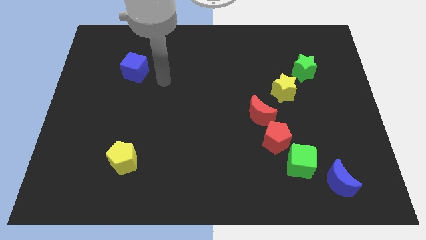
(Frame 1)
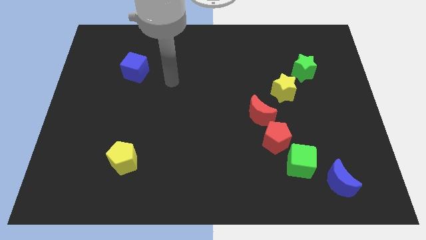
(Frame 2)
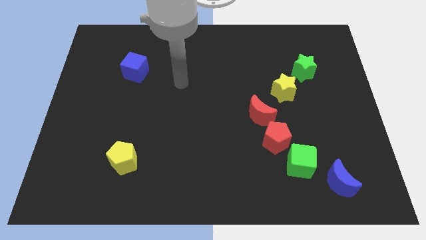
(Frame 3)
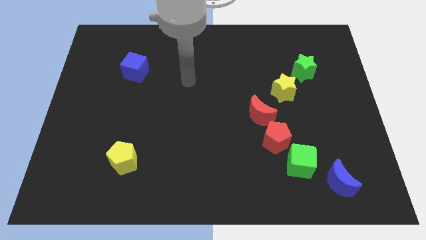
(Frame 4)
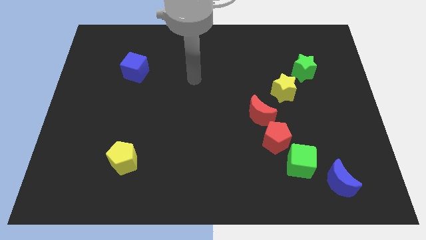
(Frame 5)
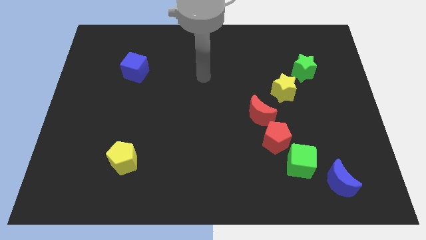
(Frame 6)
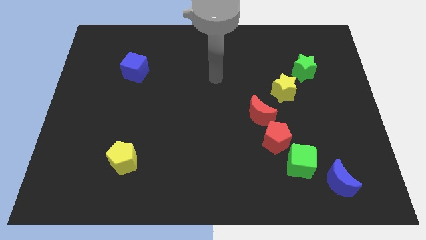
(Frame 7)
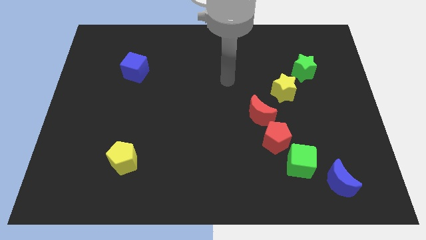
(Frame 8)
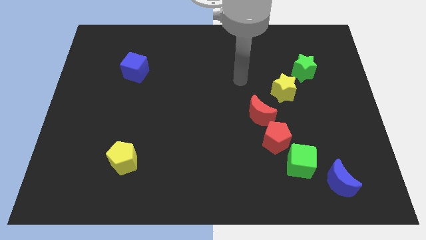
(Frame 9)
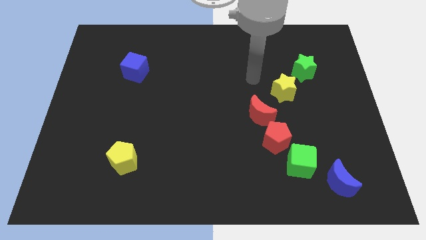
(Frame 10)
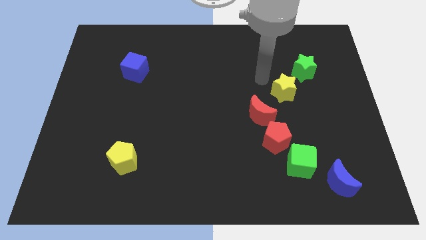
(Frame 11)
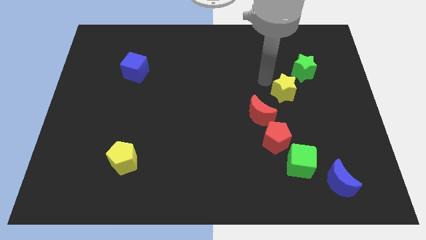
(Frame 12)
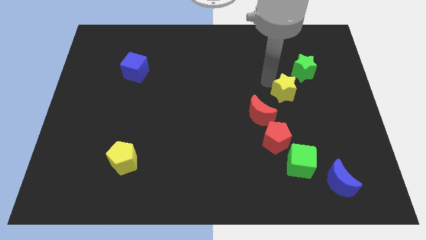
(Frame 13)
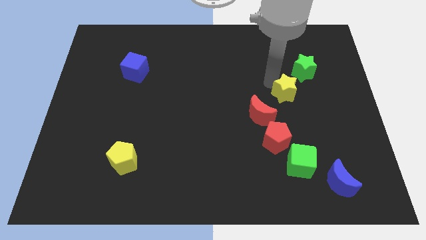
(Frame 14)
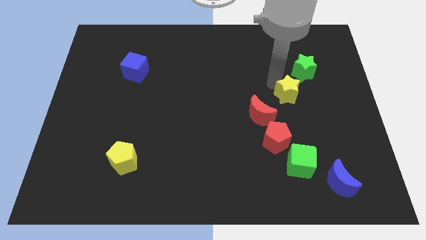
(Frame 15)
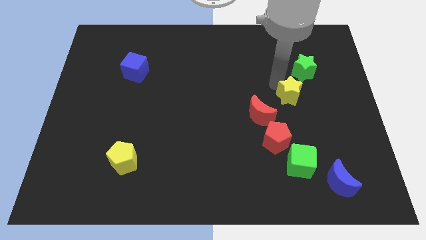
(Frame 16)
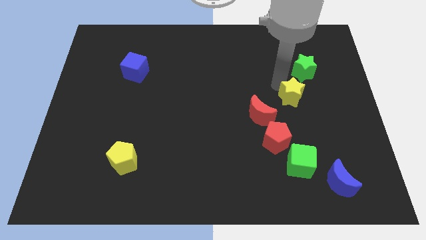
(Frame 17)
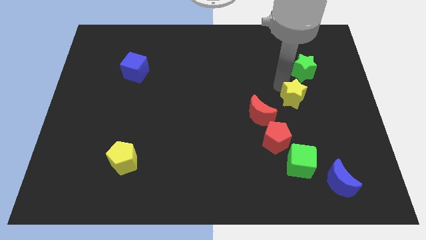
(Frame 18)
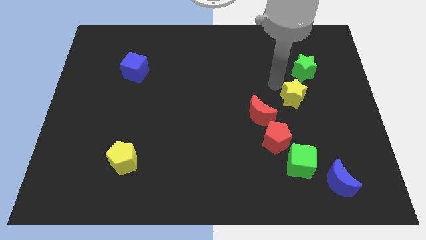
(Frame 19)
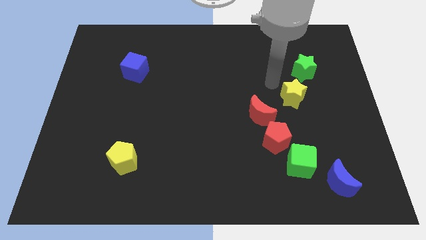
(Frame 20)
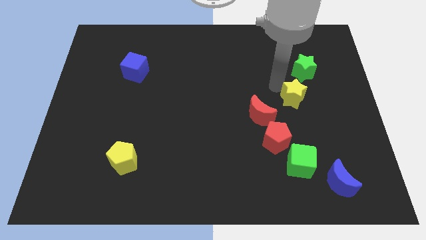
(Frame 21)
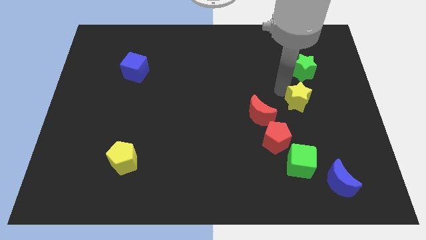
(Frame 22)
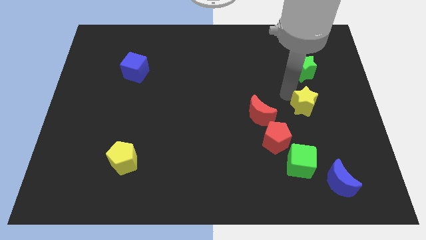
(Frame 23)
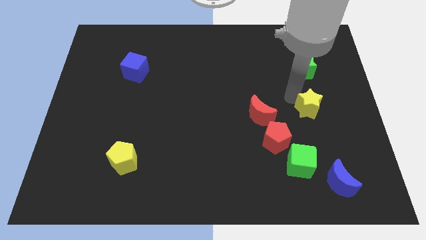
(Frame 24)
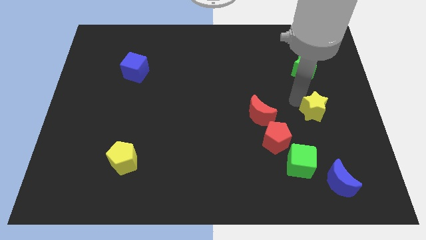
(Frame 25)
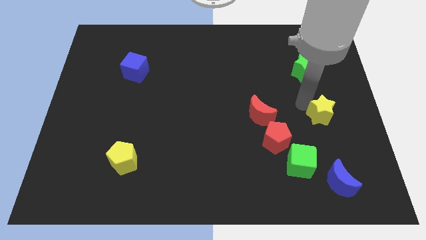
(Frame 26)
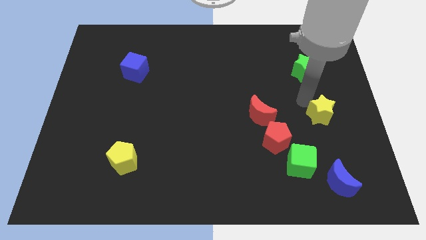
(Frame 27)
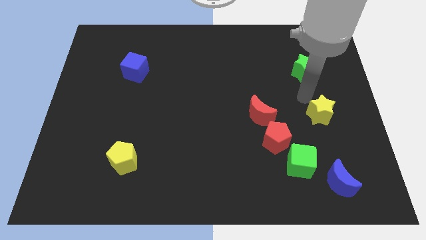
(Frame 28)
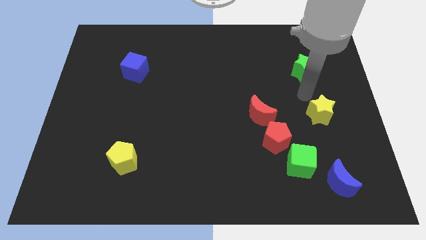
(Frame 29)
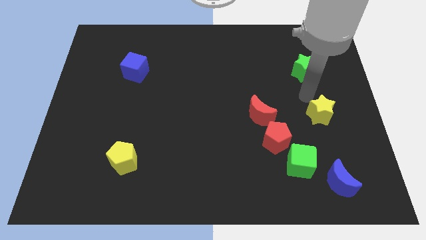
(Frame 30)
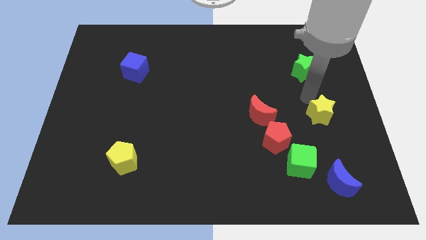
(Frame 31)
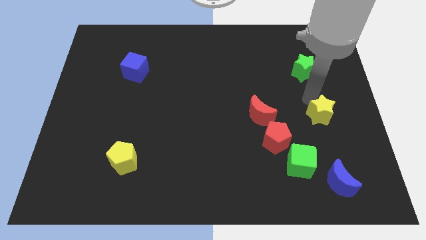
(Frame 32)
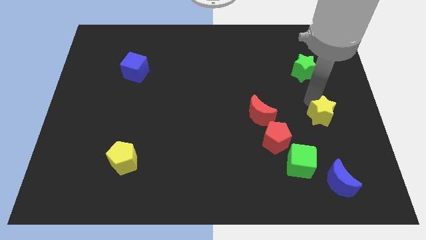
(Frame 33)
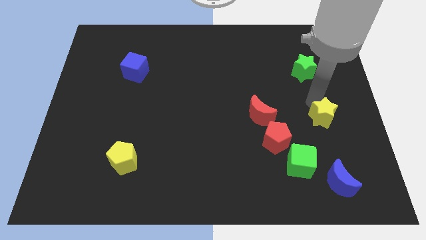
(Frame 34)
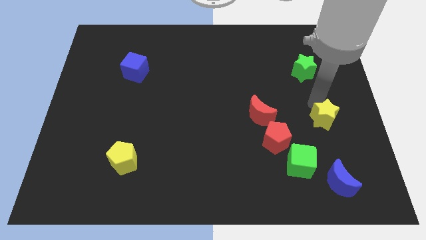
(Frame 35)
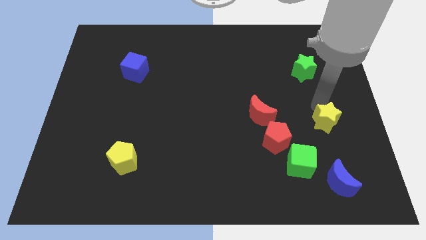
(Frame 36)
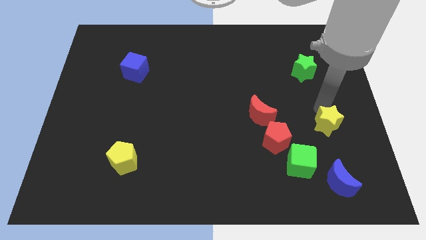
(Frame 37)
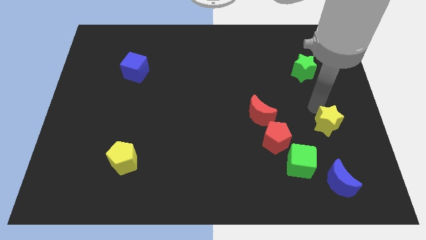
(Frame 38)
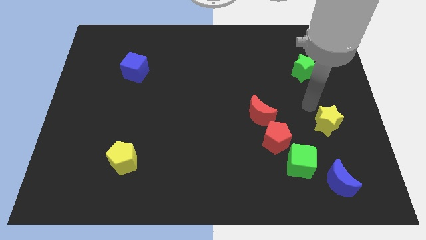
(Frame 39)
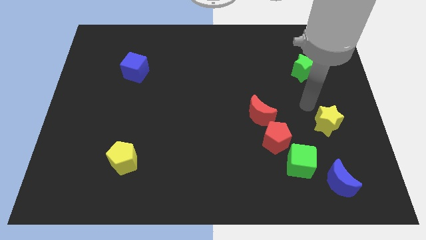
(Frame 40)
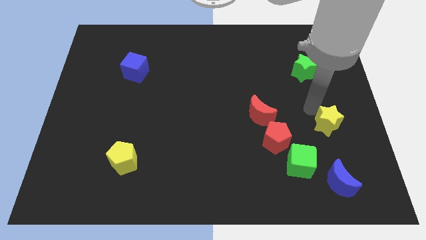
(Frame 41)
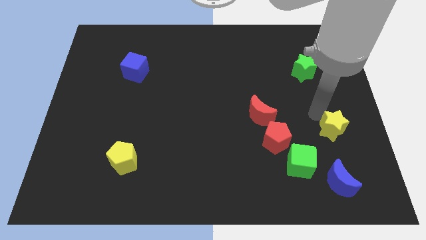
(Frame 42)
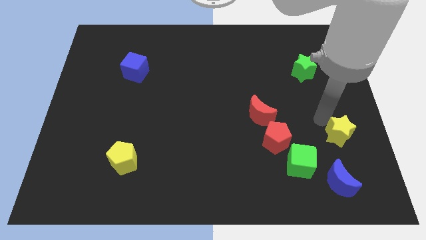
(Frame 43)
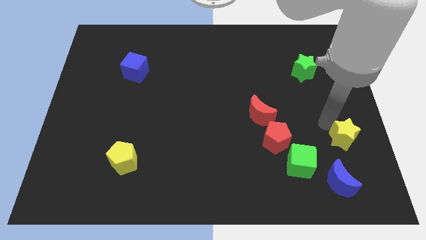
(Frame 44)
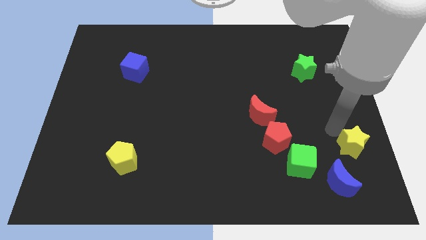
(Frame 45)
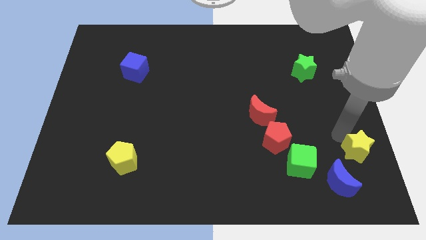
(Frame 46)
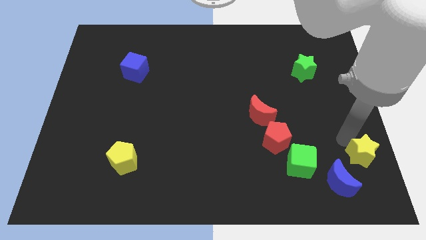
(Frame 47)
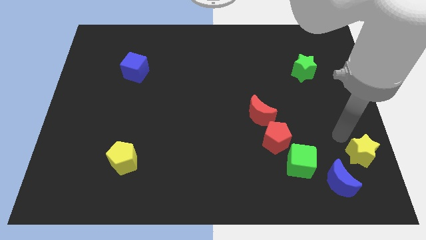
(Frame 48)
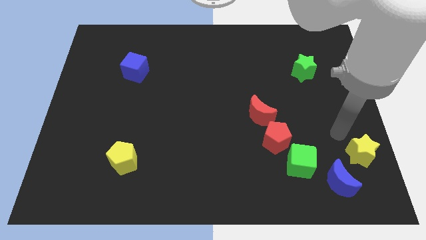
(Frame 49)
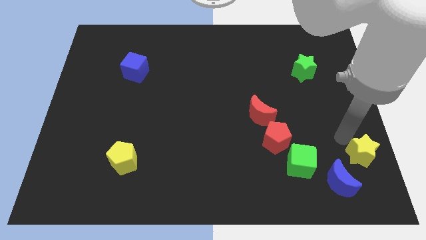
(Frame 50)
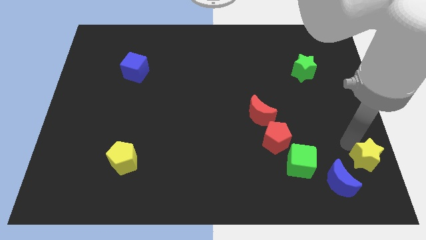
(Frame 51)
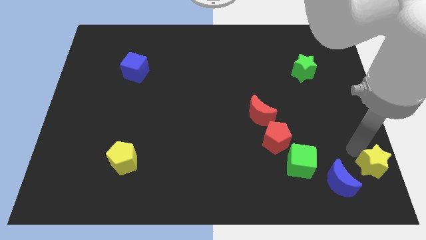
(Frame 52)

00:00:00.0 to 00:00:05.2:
slide the yellow star to the bottom right

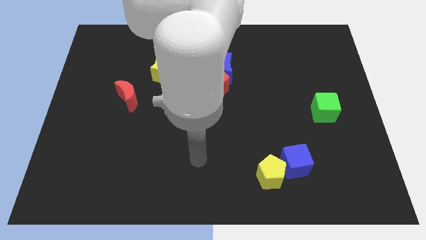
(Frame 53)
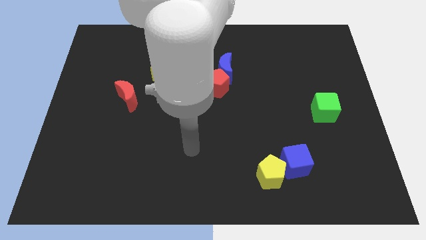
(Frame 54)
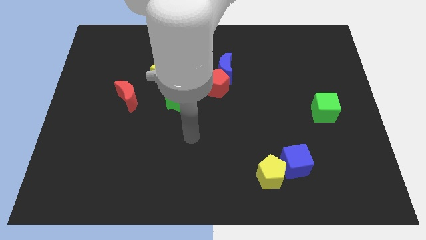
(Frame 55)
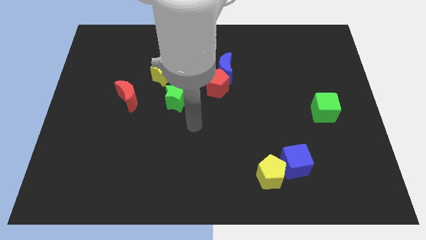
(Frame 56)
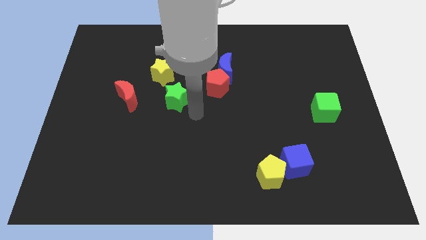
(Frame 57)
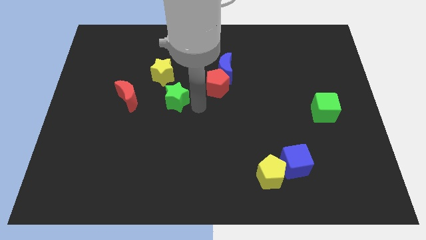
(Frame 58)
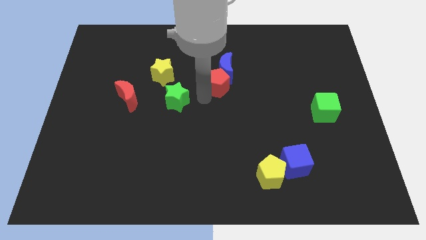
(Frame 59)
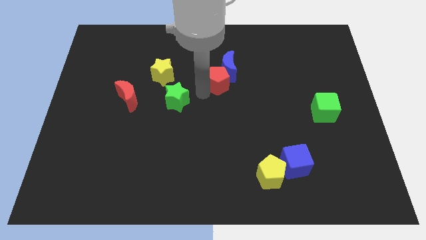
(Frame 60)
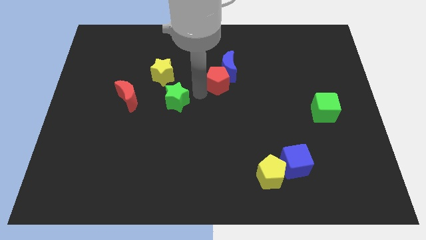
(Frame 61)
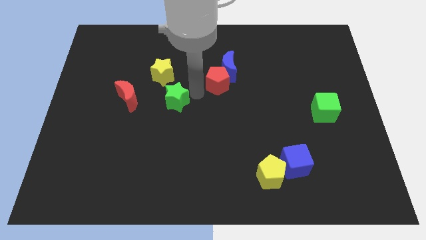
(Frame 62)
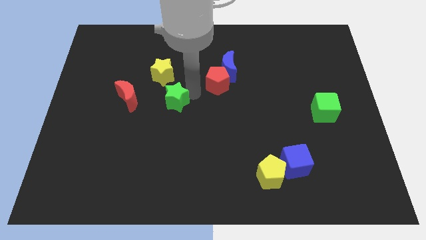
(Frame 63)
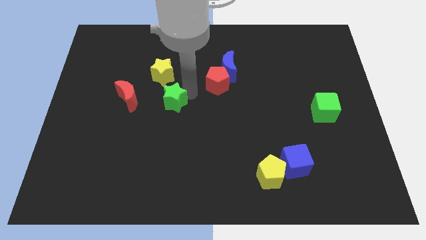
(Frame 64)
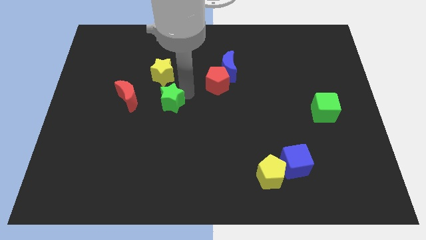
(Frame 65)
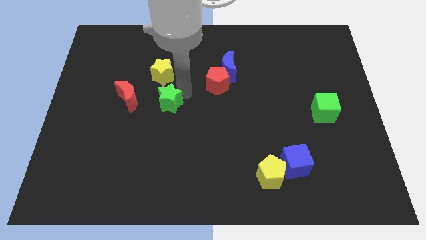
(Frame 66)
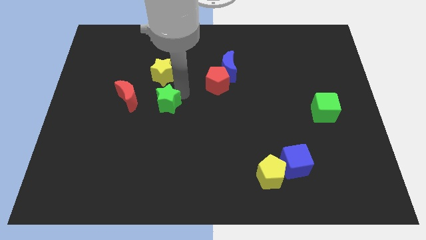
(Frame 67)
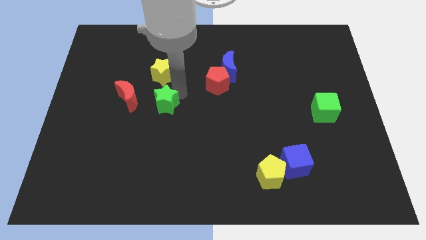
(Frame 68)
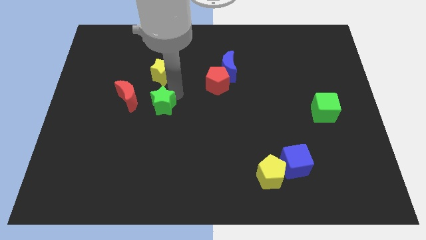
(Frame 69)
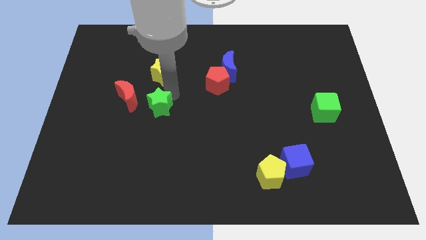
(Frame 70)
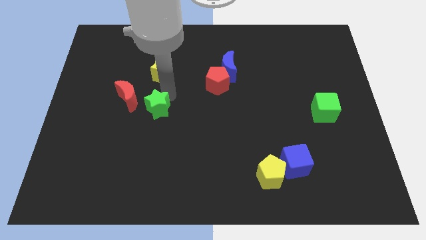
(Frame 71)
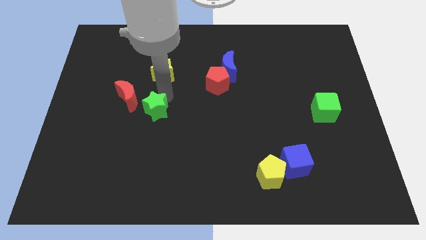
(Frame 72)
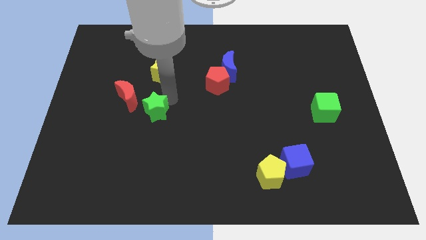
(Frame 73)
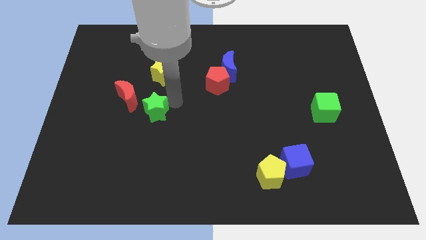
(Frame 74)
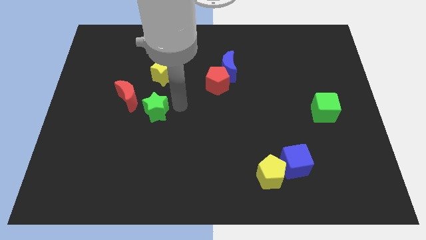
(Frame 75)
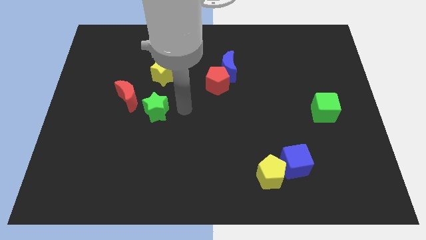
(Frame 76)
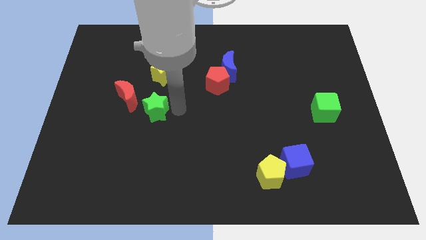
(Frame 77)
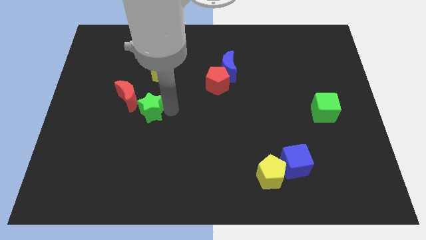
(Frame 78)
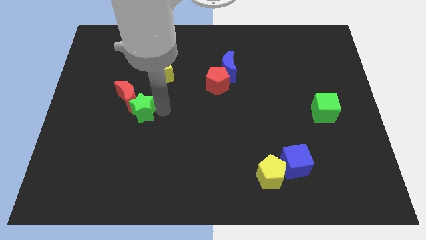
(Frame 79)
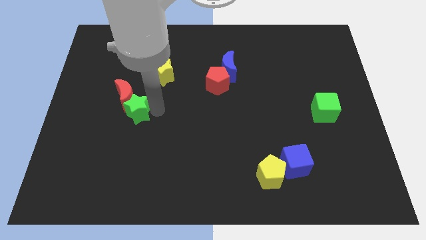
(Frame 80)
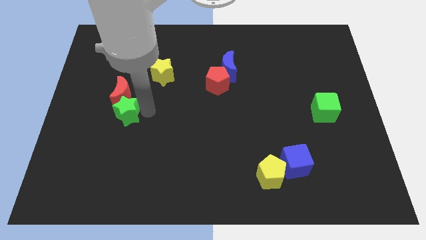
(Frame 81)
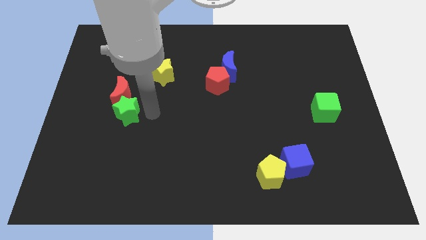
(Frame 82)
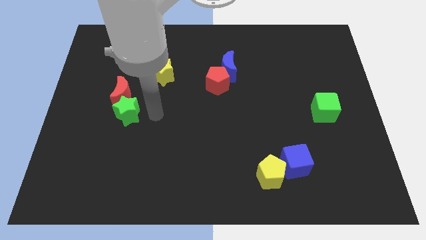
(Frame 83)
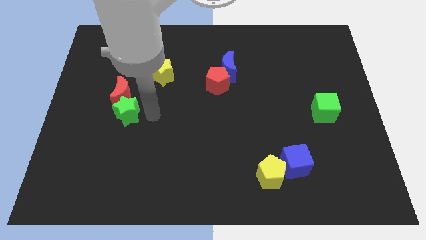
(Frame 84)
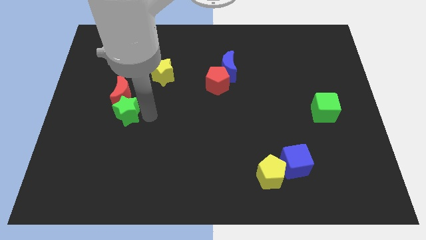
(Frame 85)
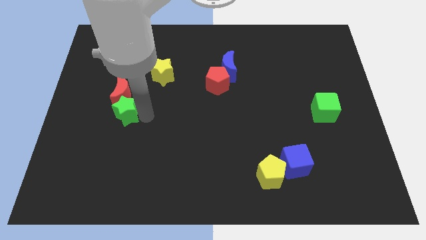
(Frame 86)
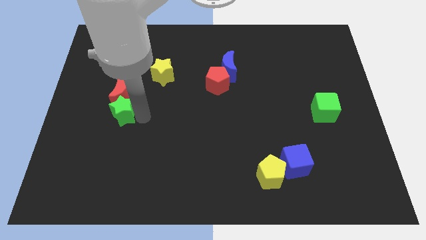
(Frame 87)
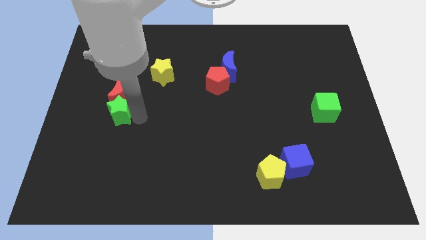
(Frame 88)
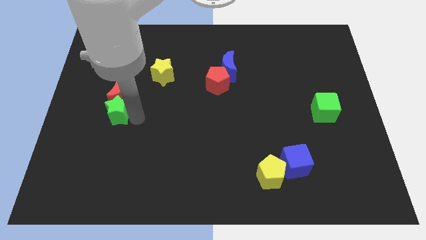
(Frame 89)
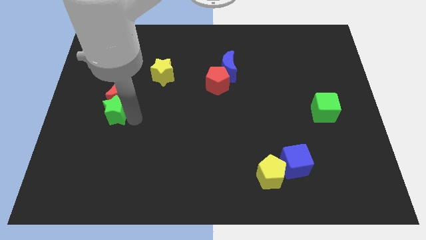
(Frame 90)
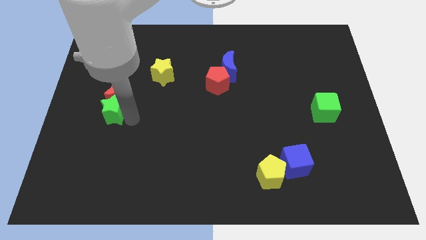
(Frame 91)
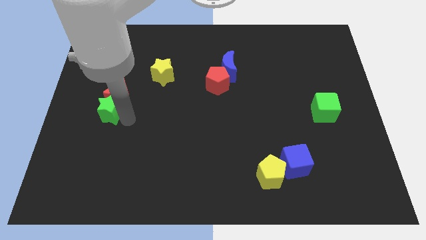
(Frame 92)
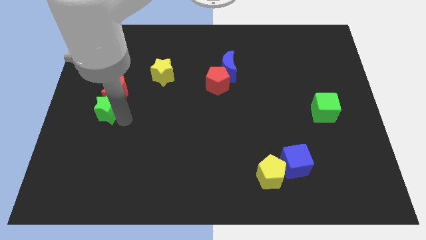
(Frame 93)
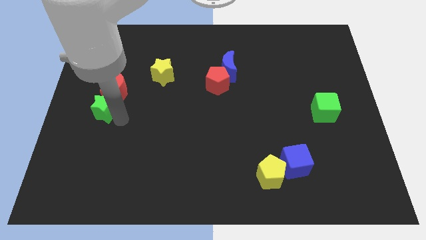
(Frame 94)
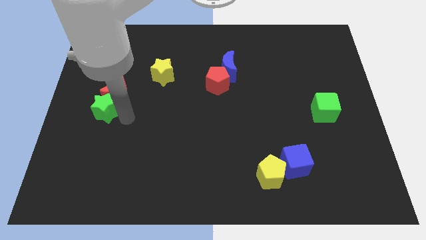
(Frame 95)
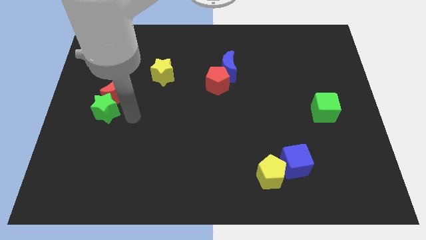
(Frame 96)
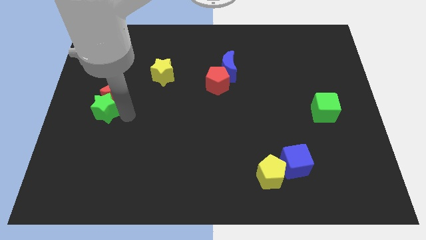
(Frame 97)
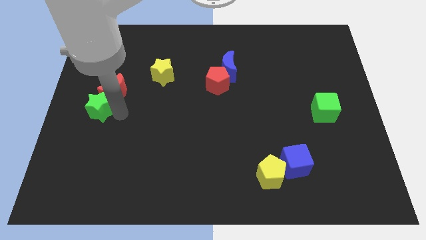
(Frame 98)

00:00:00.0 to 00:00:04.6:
move the green star to the left side
